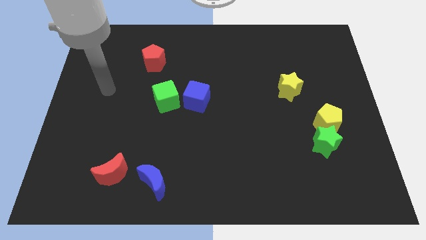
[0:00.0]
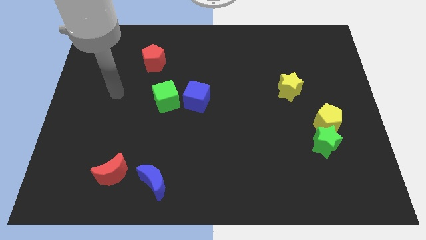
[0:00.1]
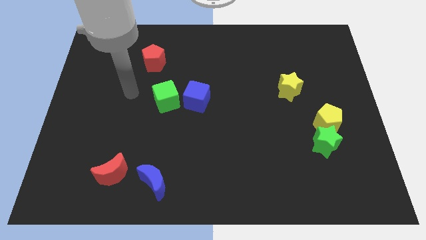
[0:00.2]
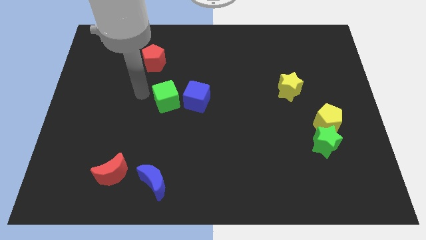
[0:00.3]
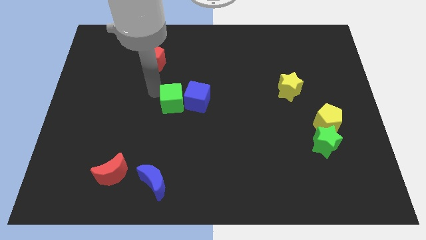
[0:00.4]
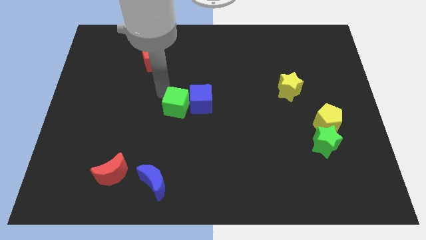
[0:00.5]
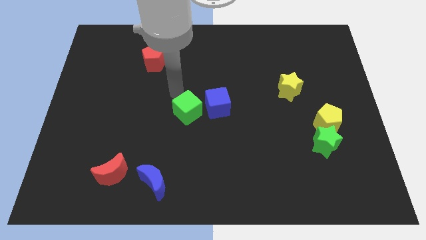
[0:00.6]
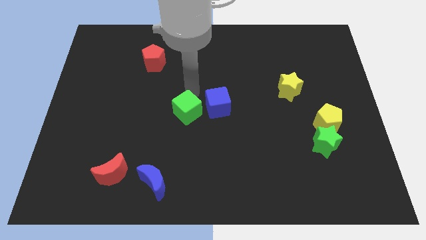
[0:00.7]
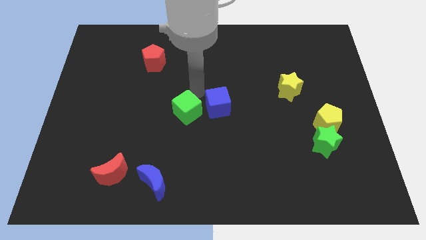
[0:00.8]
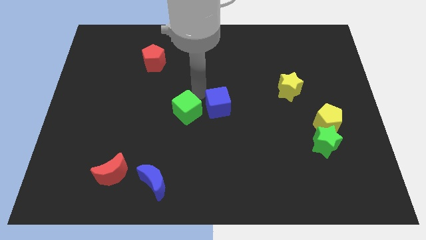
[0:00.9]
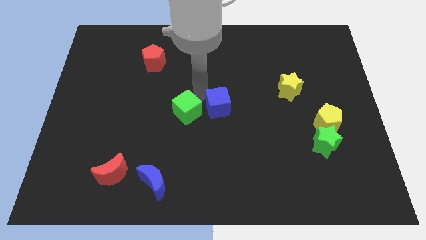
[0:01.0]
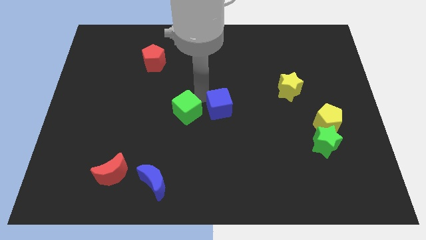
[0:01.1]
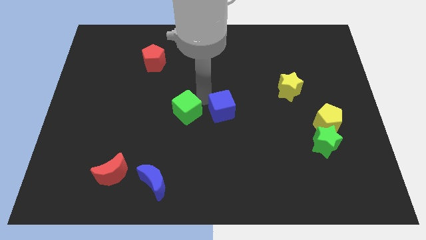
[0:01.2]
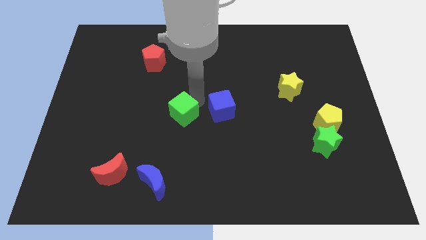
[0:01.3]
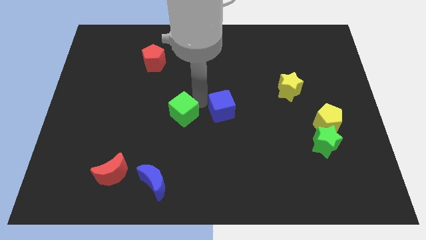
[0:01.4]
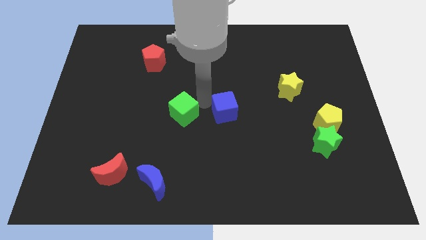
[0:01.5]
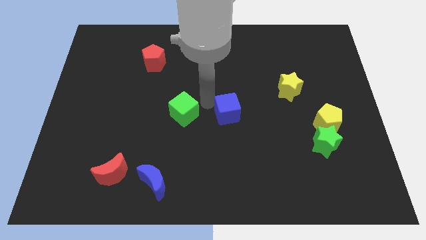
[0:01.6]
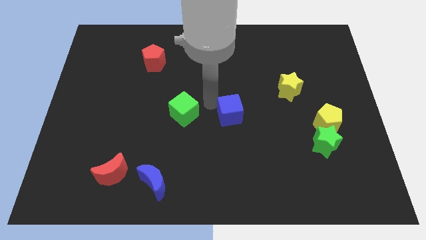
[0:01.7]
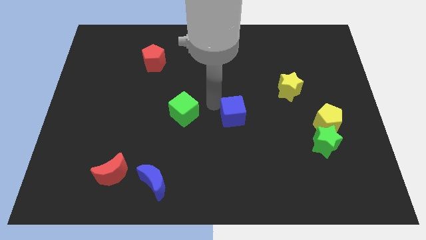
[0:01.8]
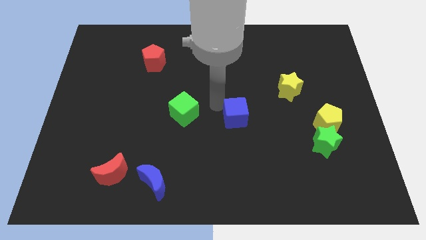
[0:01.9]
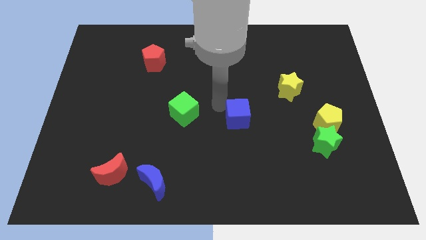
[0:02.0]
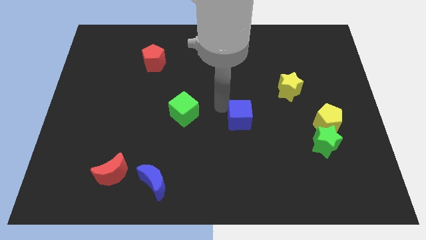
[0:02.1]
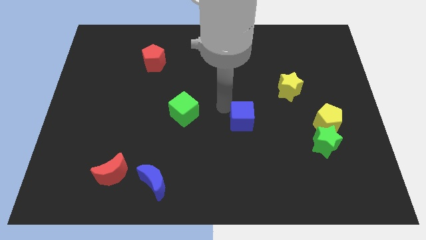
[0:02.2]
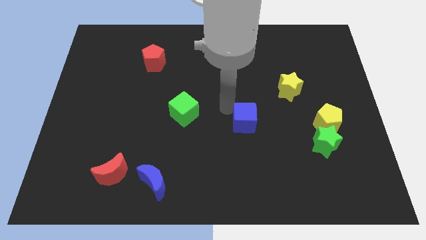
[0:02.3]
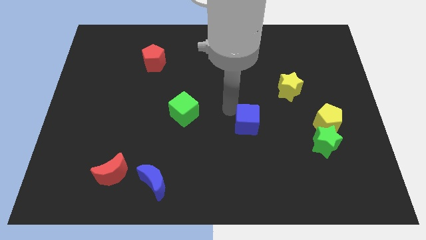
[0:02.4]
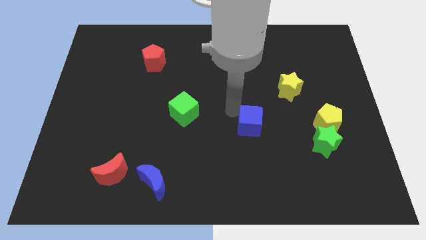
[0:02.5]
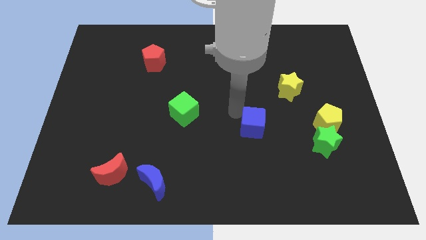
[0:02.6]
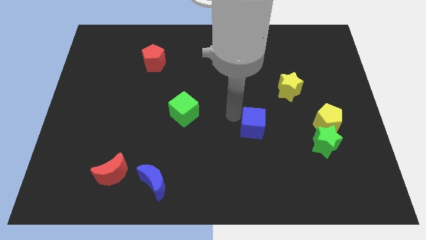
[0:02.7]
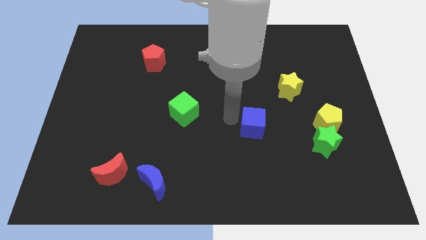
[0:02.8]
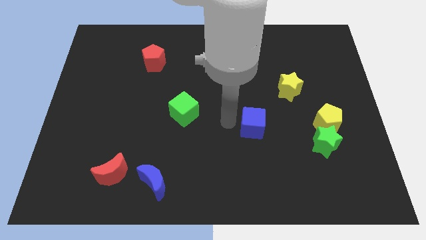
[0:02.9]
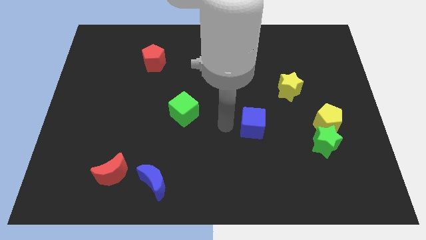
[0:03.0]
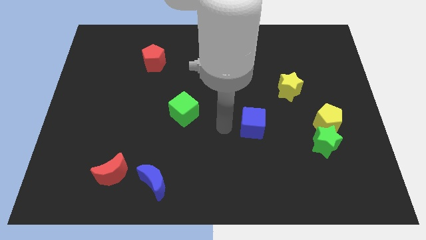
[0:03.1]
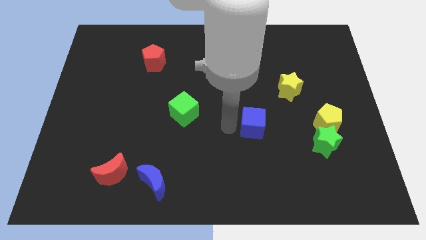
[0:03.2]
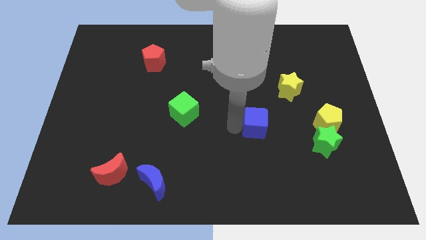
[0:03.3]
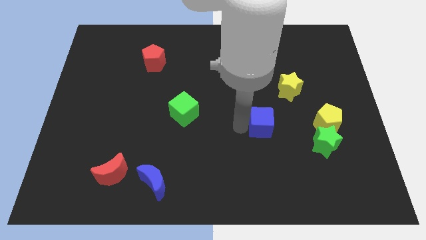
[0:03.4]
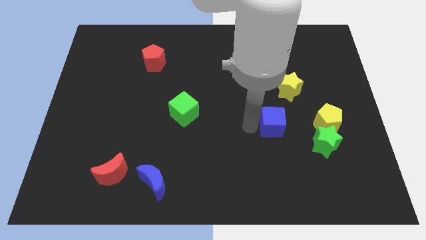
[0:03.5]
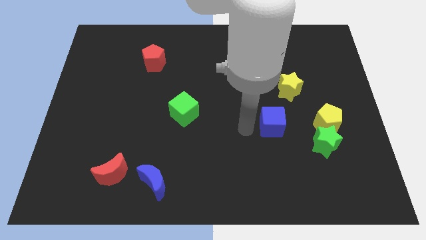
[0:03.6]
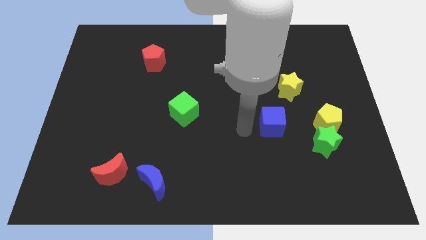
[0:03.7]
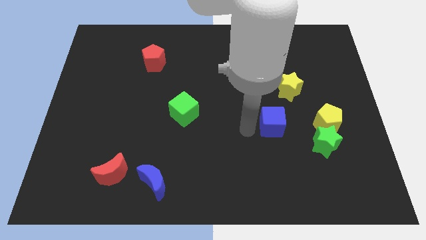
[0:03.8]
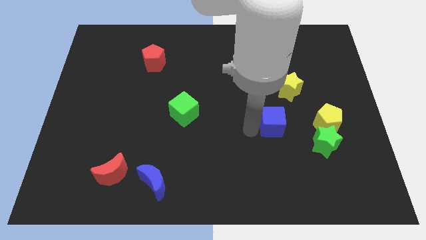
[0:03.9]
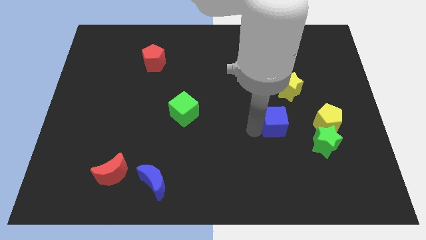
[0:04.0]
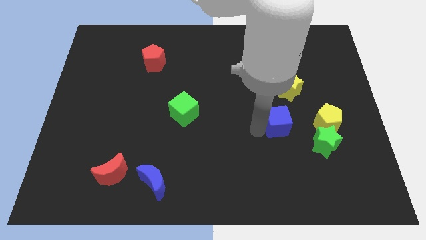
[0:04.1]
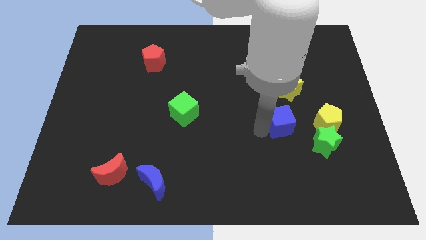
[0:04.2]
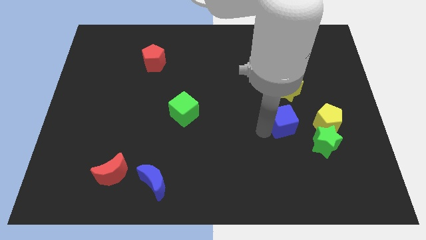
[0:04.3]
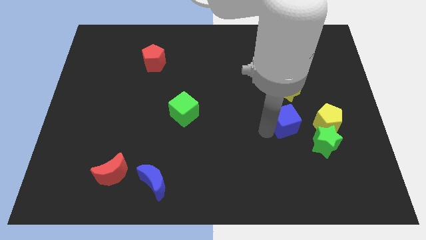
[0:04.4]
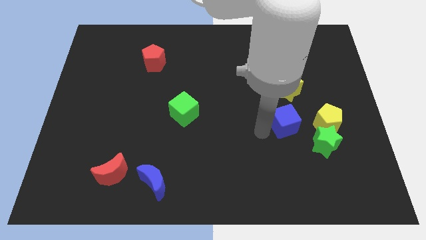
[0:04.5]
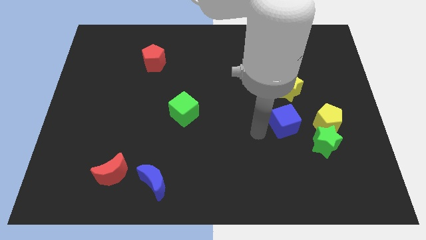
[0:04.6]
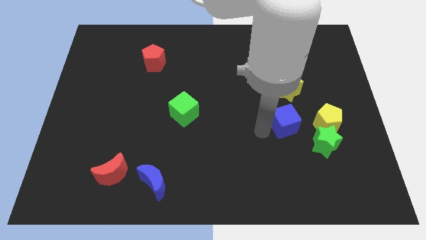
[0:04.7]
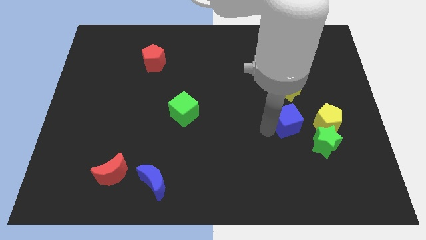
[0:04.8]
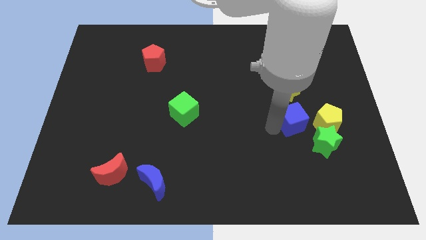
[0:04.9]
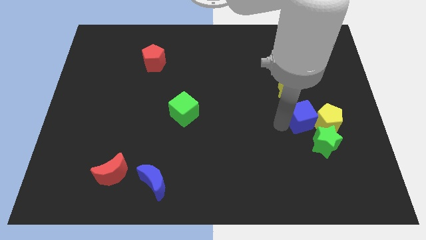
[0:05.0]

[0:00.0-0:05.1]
move the blue cube next to the yellow pentagon

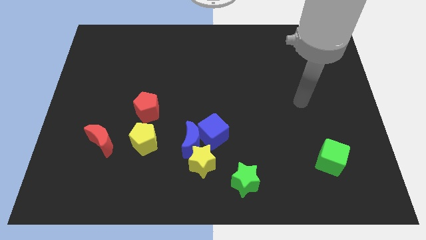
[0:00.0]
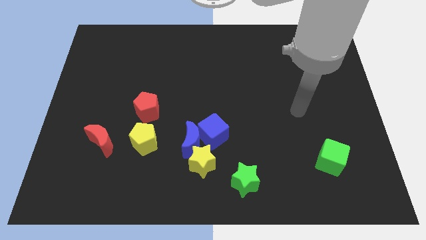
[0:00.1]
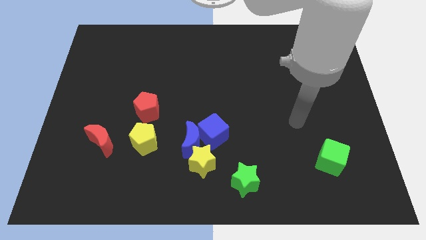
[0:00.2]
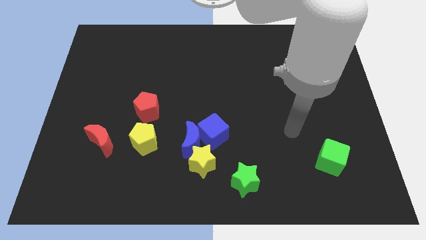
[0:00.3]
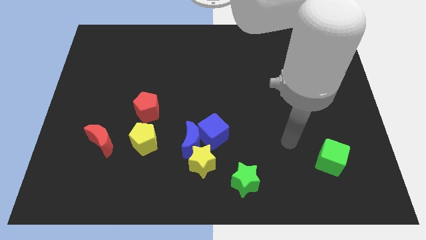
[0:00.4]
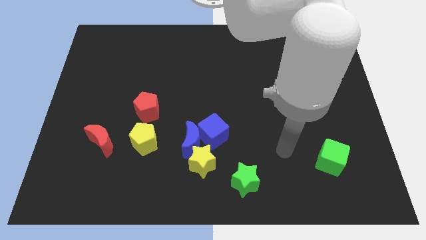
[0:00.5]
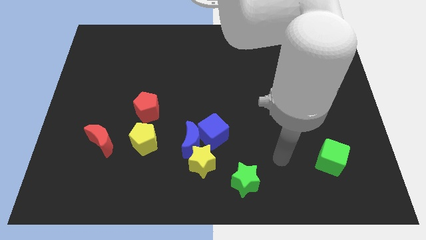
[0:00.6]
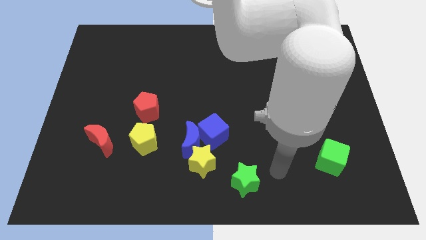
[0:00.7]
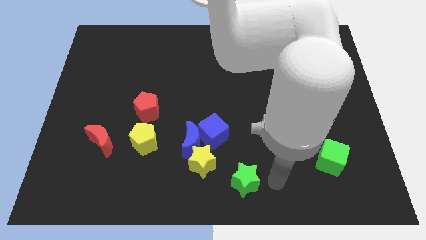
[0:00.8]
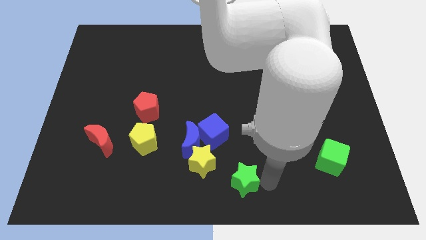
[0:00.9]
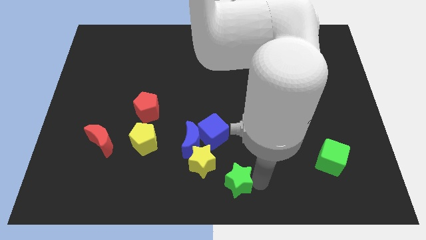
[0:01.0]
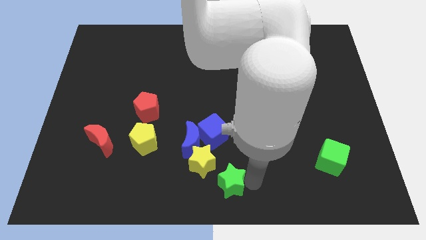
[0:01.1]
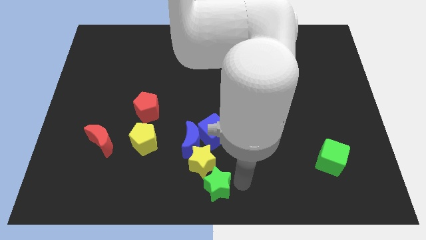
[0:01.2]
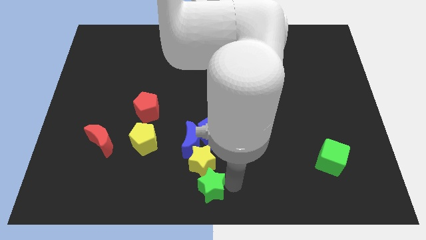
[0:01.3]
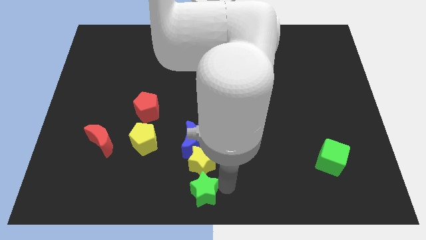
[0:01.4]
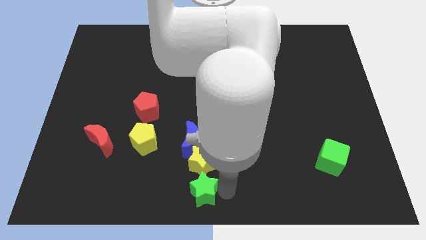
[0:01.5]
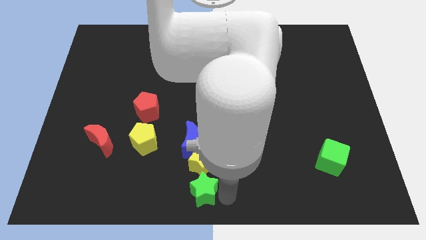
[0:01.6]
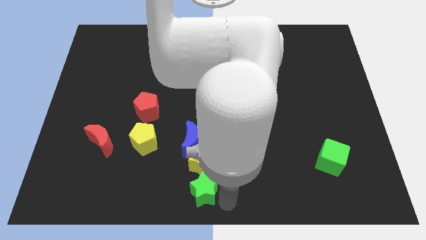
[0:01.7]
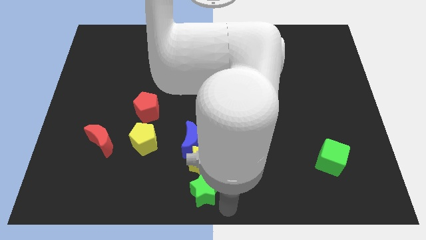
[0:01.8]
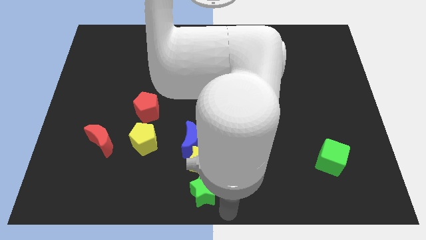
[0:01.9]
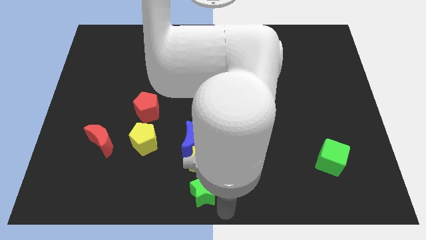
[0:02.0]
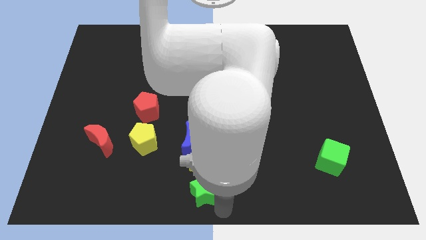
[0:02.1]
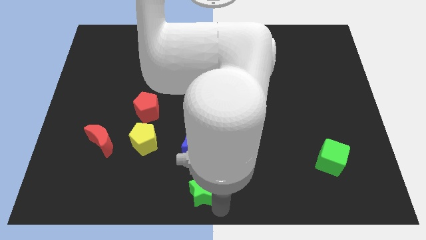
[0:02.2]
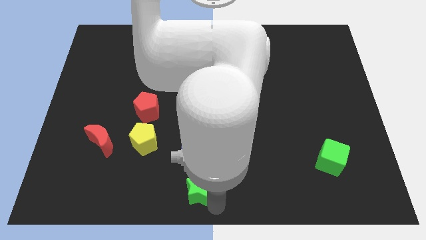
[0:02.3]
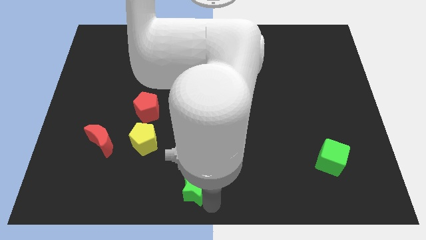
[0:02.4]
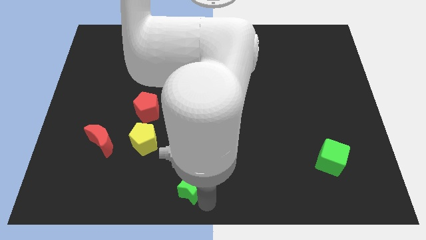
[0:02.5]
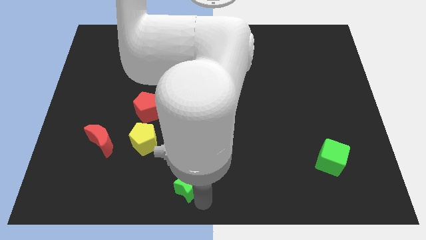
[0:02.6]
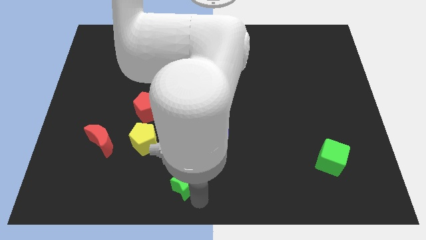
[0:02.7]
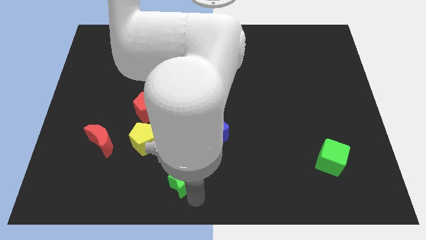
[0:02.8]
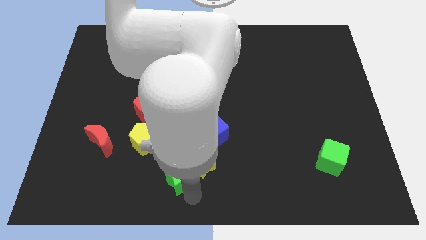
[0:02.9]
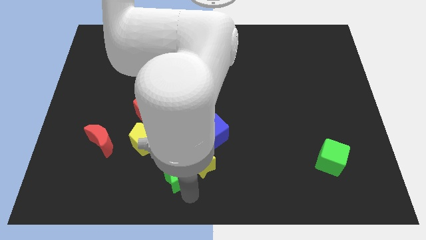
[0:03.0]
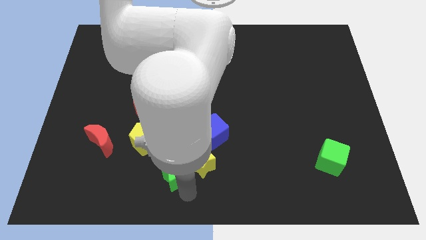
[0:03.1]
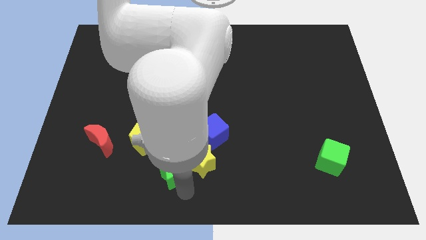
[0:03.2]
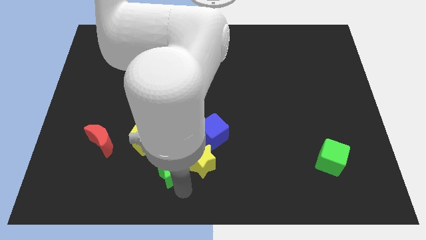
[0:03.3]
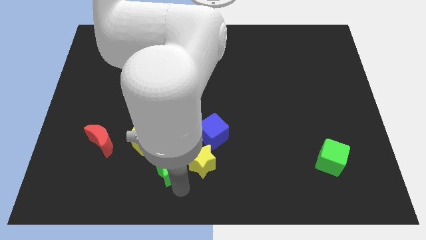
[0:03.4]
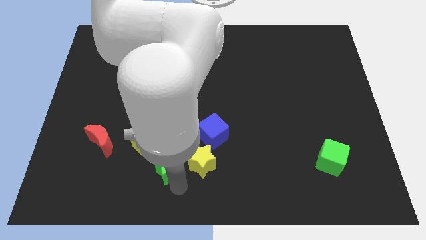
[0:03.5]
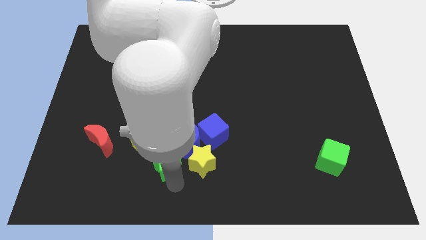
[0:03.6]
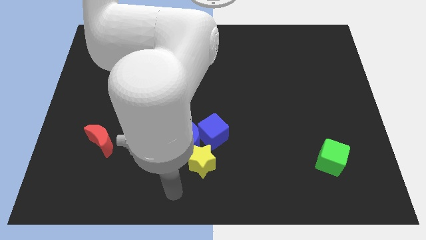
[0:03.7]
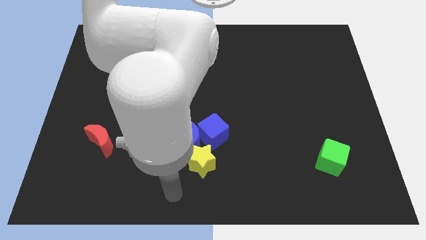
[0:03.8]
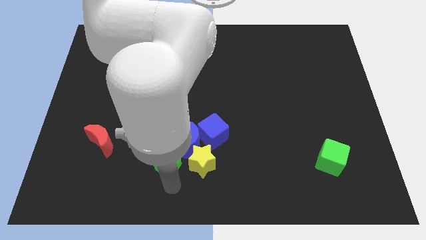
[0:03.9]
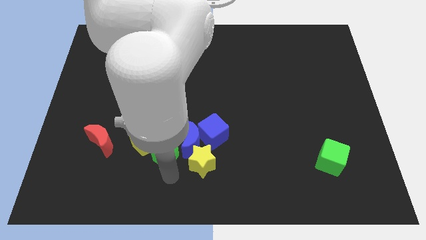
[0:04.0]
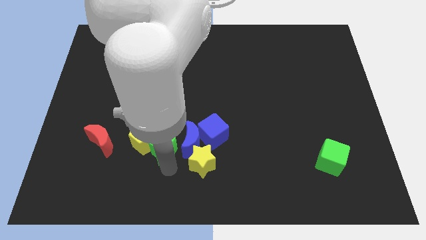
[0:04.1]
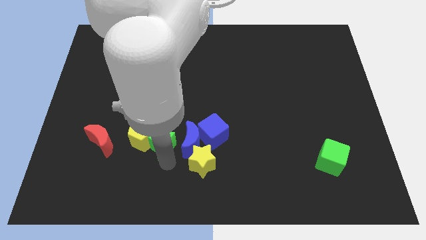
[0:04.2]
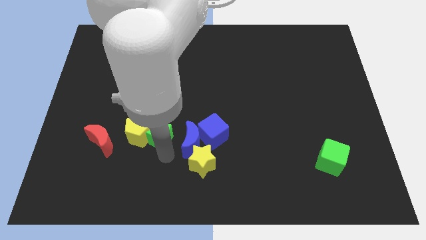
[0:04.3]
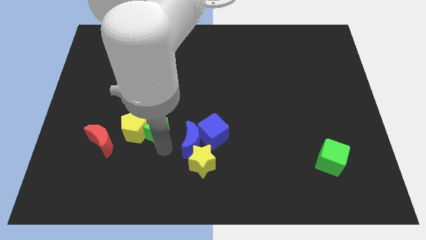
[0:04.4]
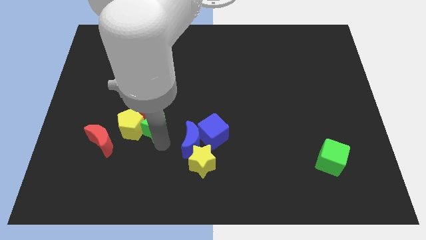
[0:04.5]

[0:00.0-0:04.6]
move the green star to the red pentagon
